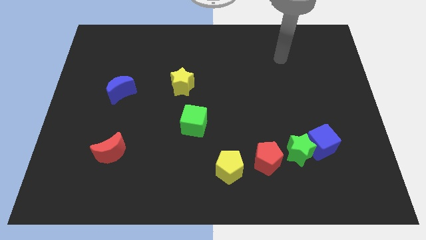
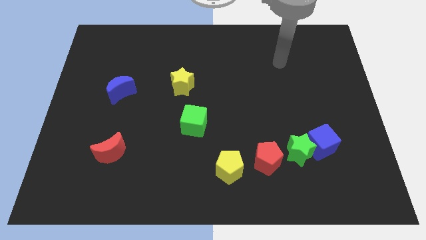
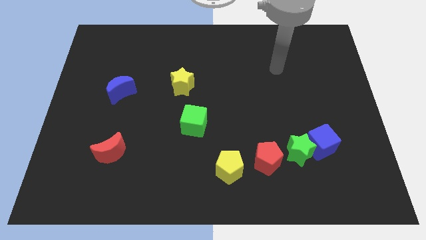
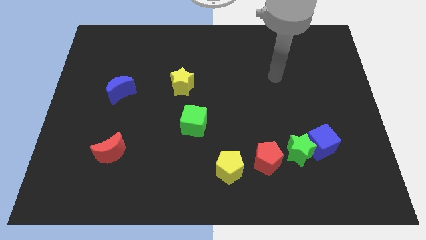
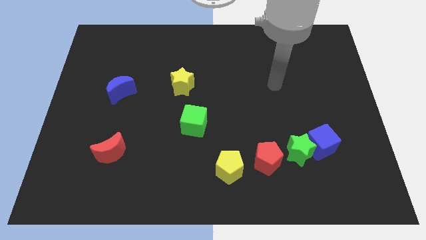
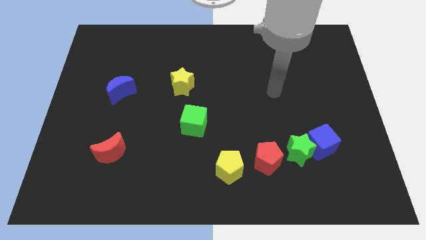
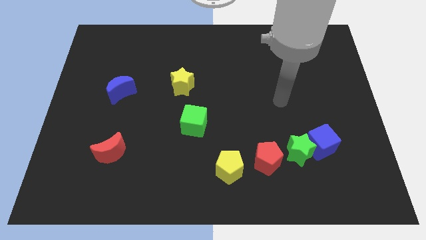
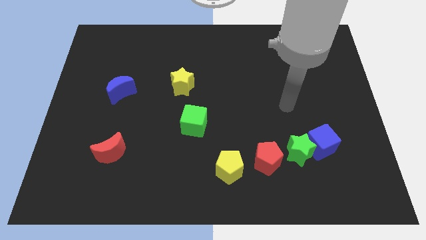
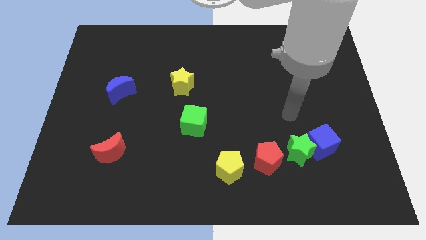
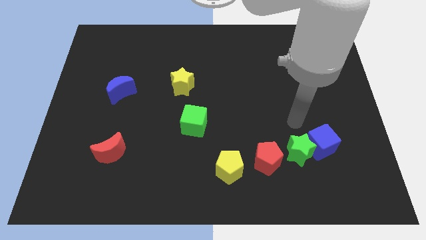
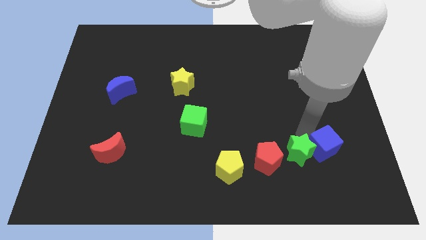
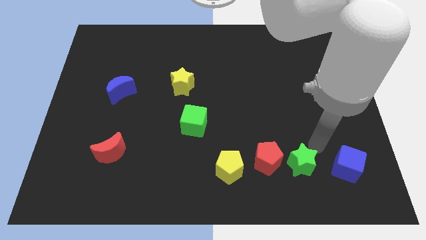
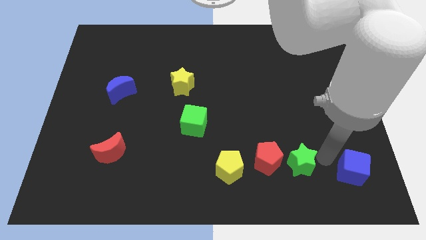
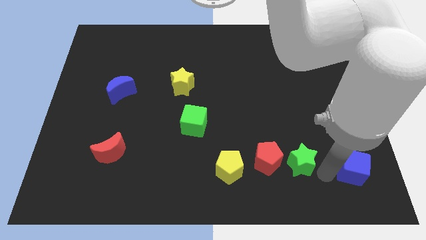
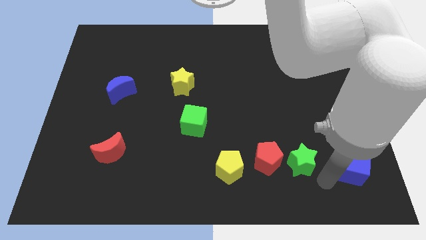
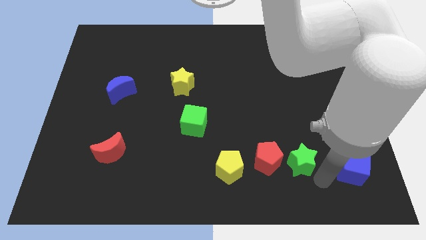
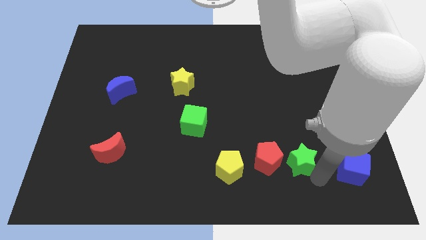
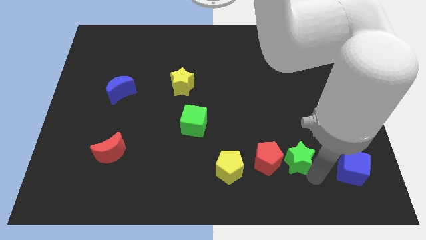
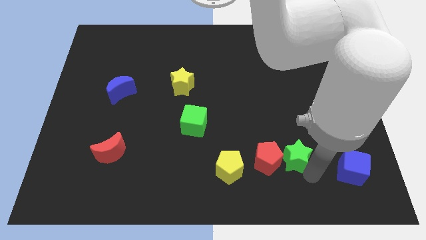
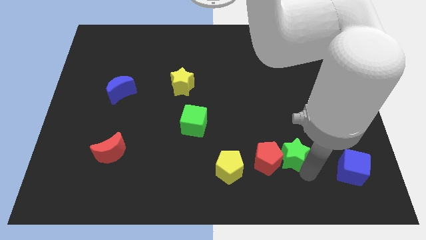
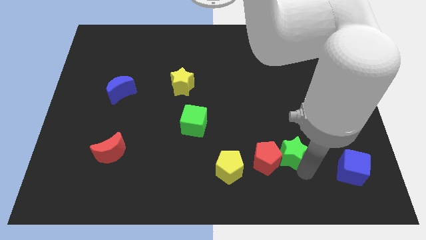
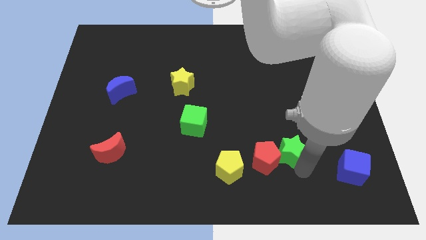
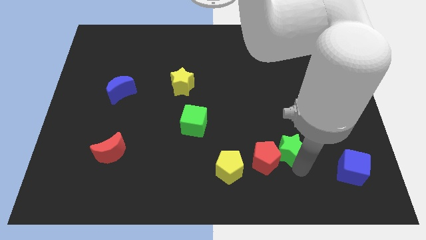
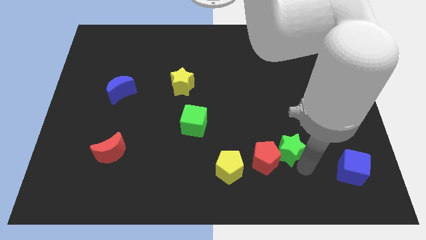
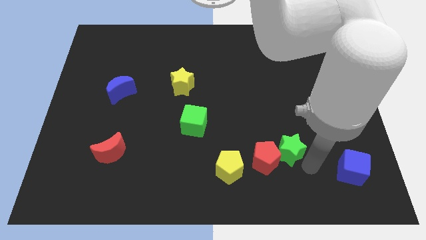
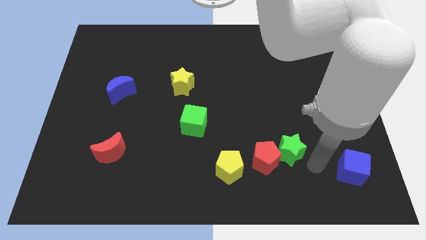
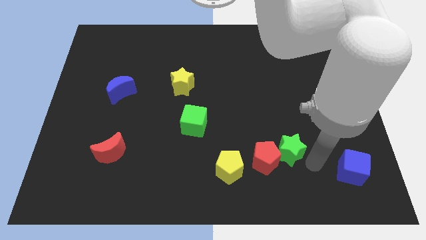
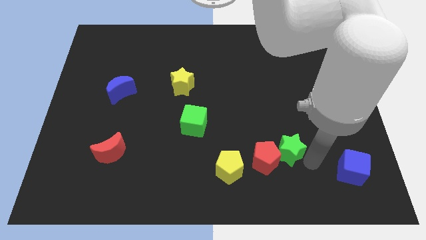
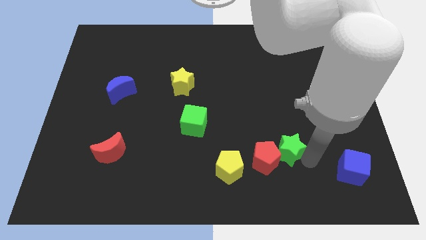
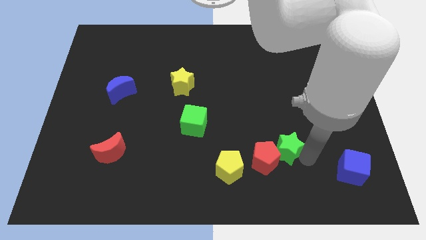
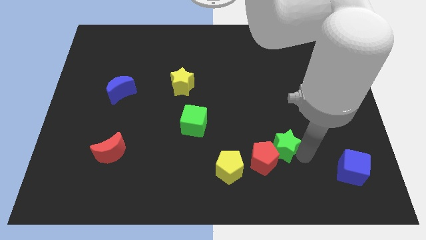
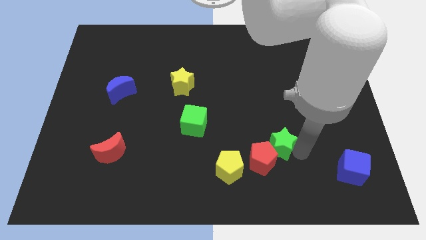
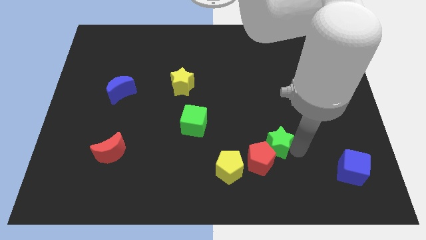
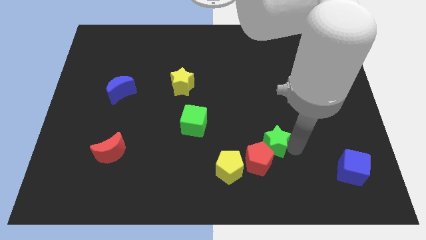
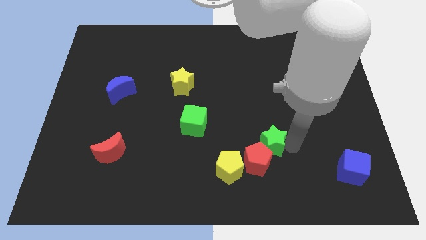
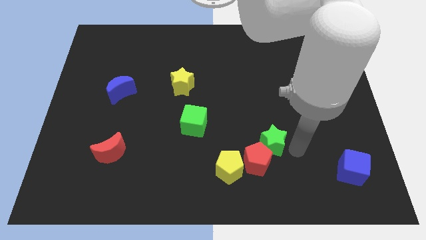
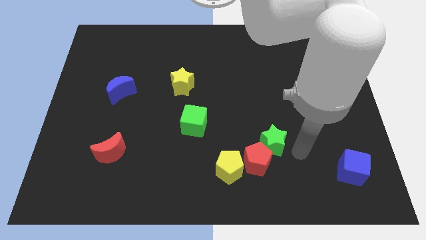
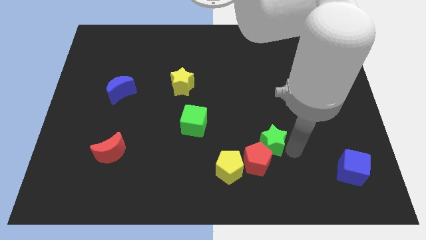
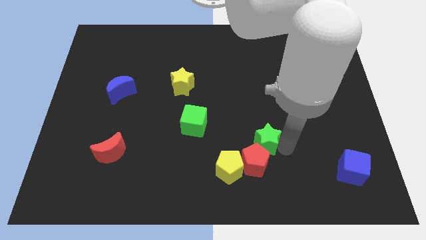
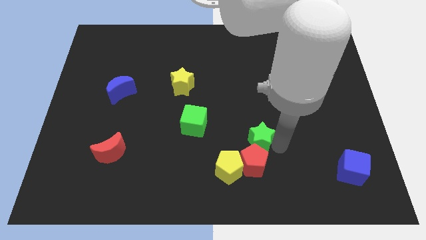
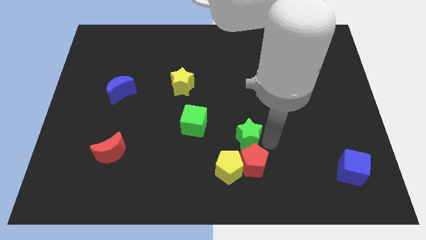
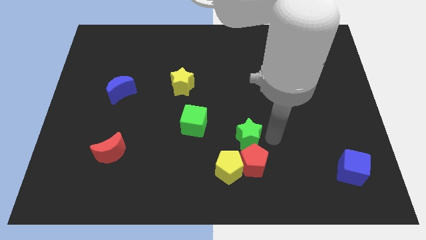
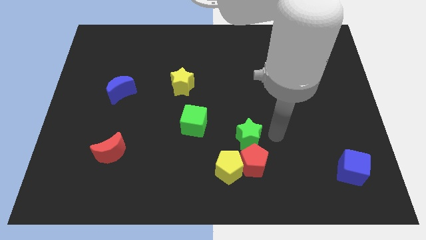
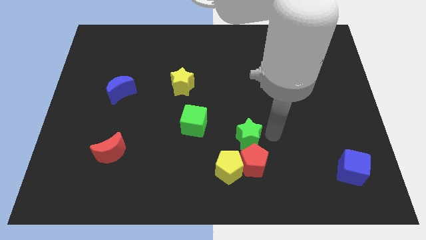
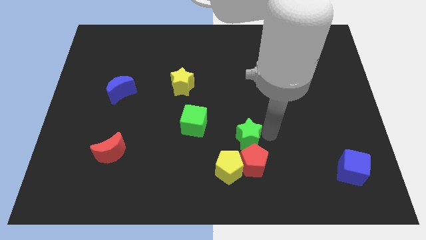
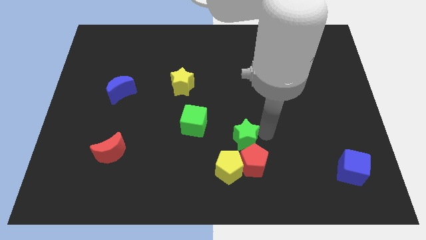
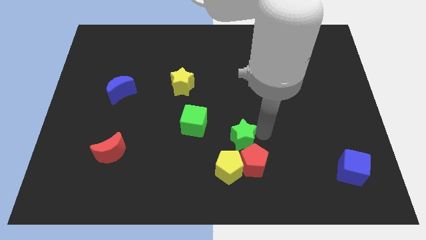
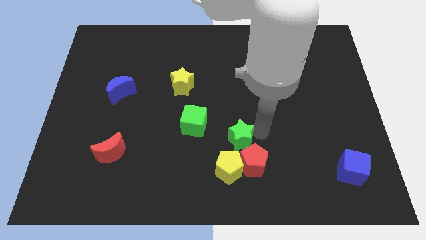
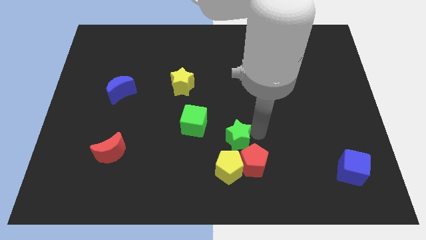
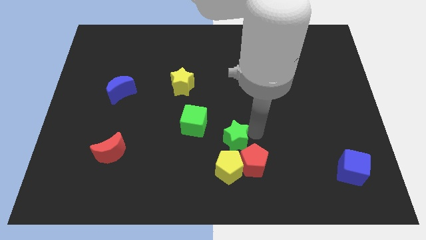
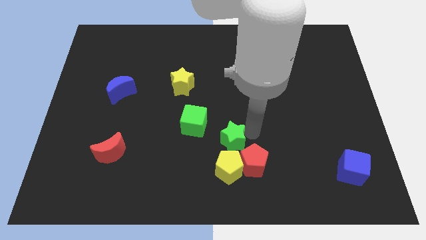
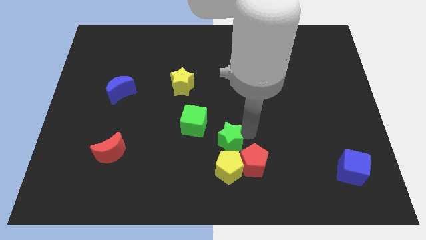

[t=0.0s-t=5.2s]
push the green star to the top left side of the yellow pentagon

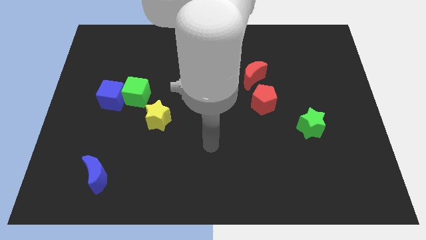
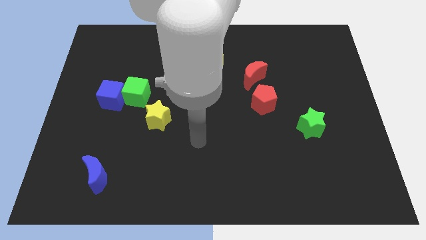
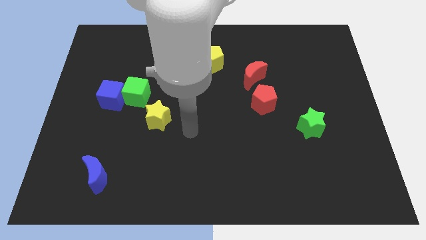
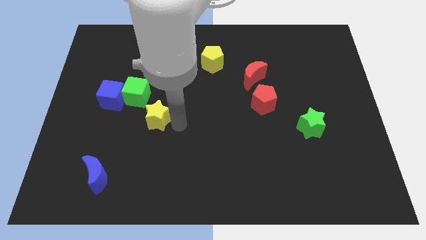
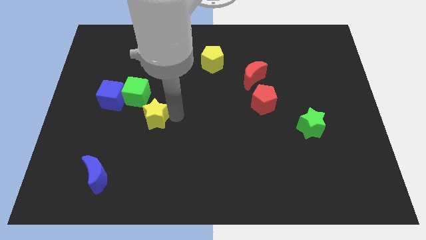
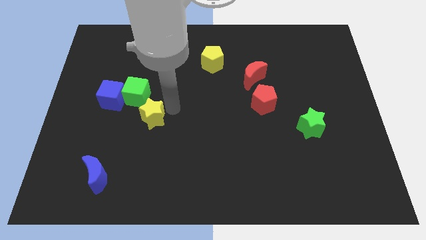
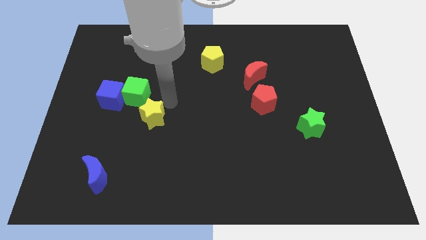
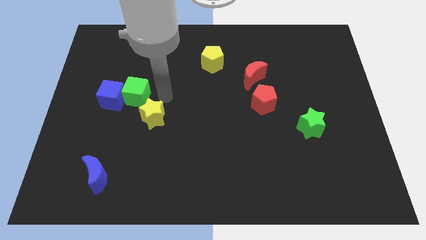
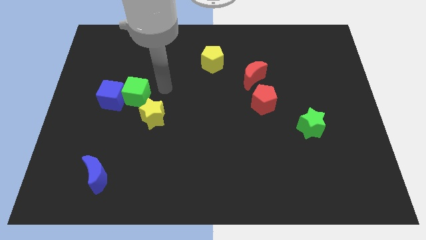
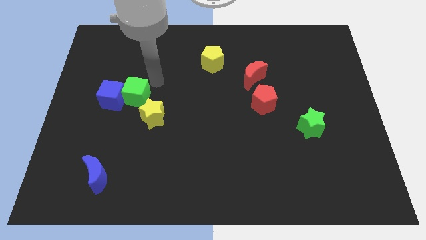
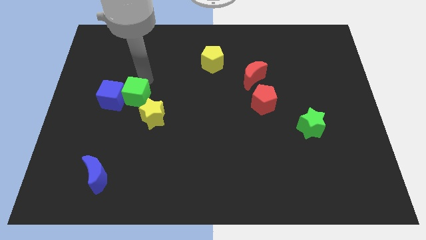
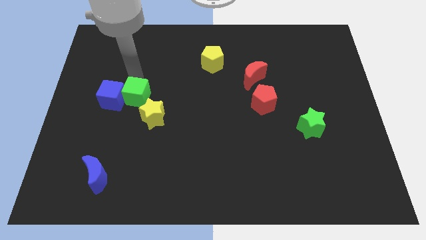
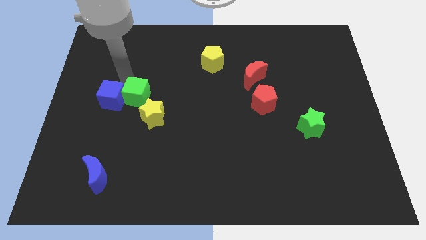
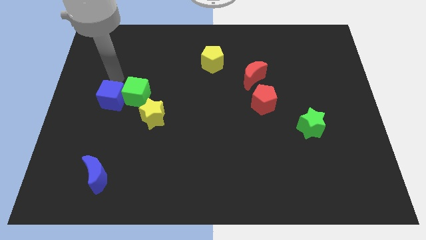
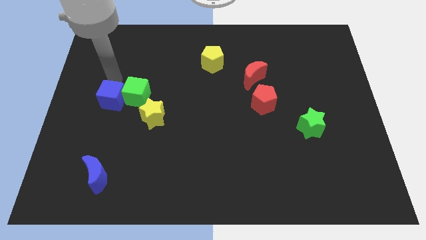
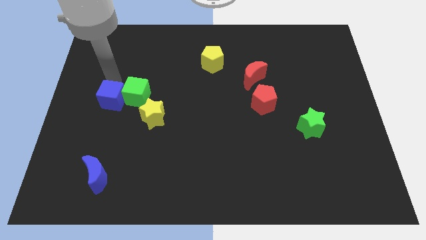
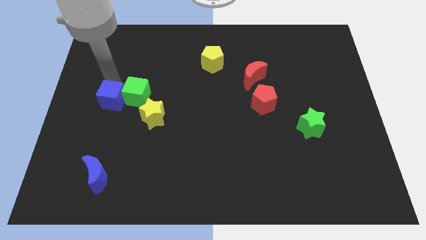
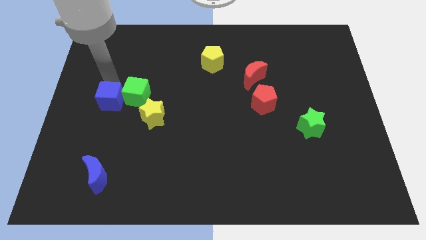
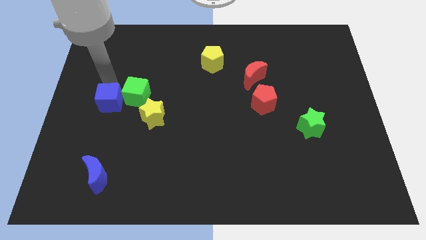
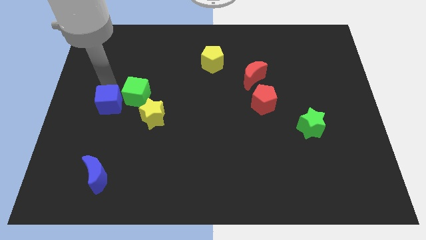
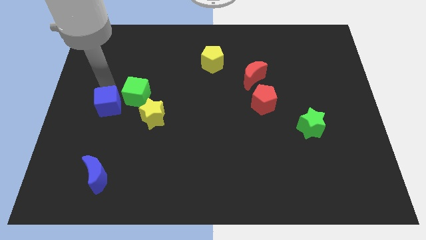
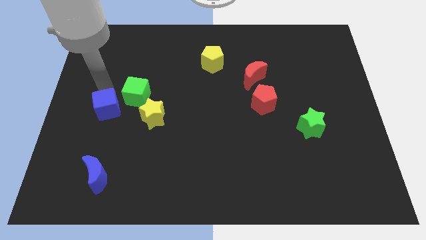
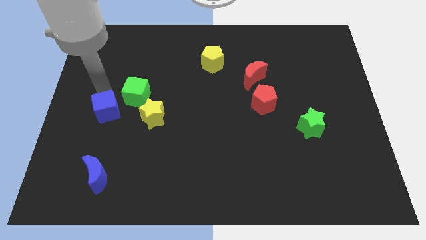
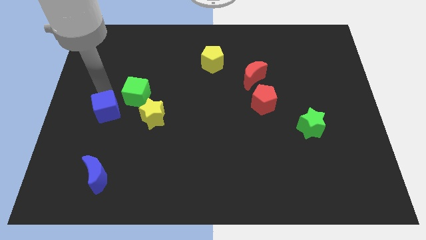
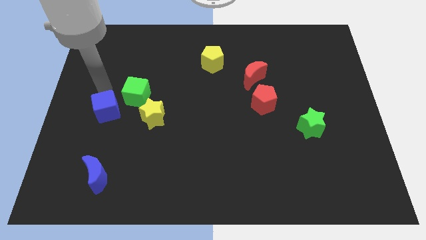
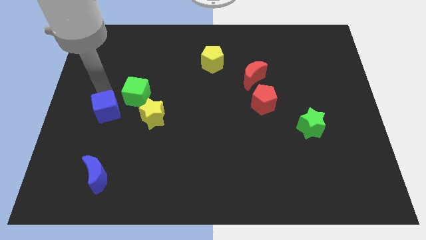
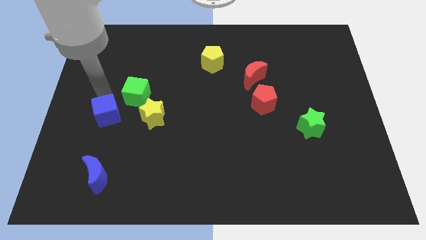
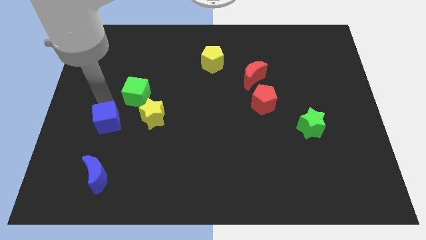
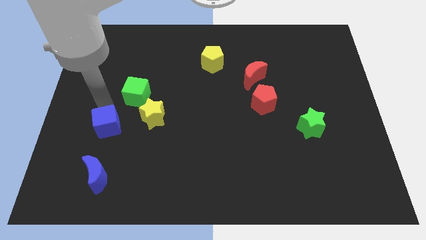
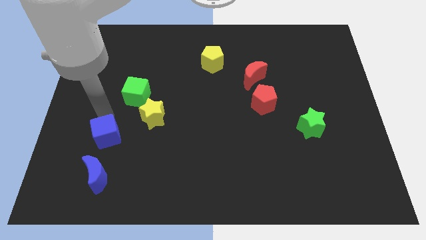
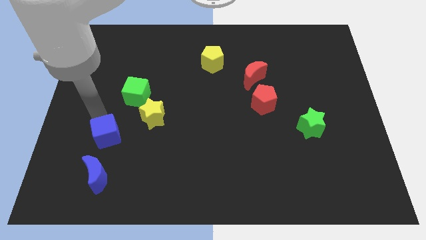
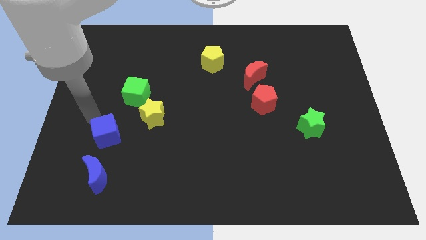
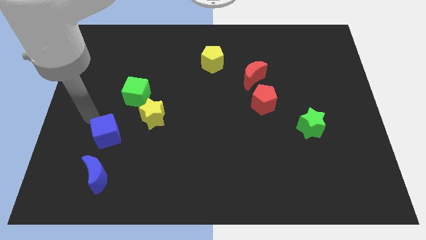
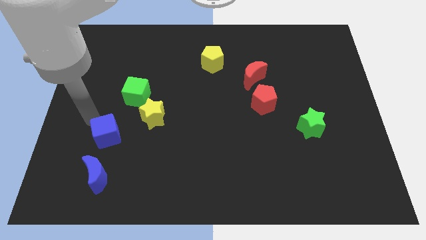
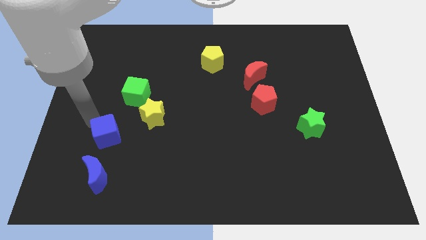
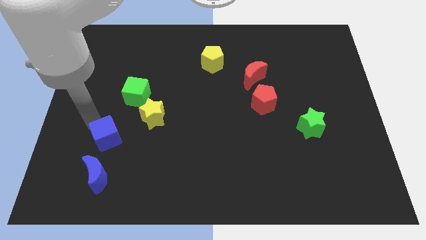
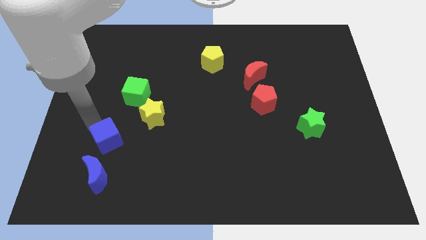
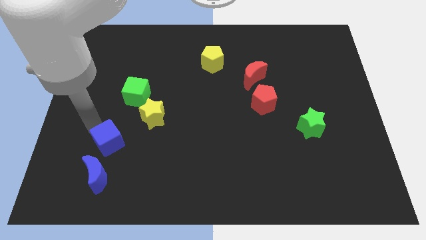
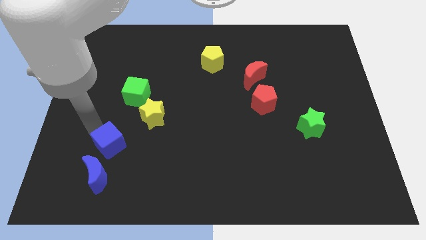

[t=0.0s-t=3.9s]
move the blue cube to the top right side of the blue moon
